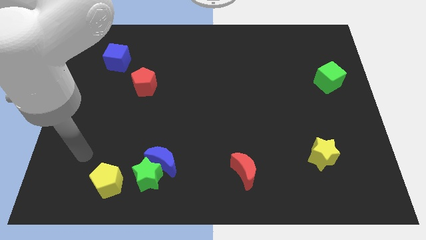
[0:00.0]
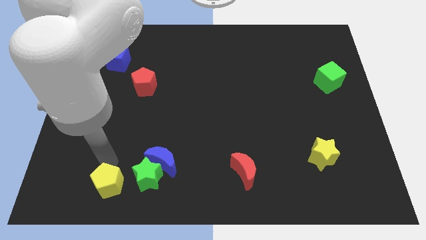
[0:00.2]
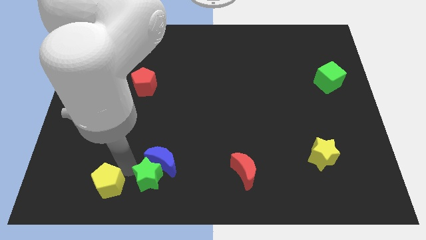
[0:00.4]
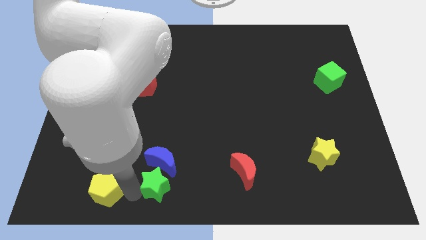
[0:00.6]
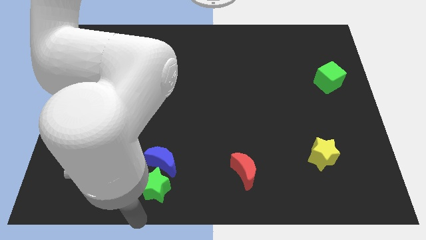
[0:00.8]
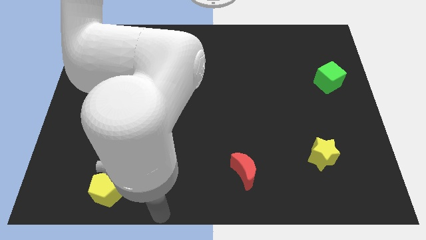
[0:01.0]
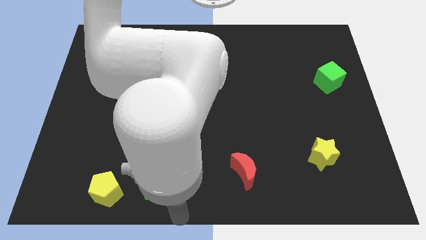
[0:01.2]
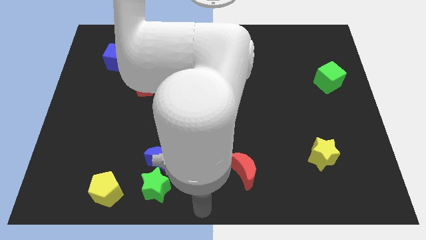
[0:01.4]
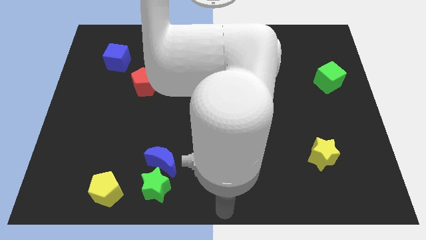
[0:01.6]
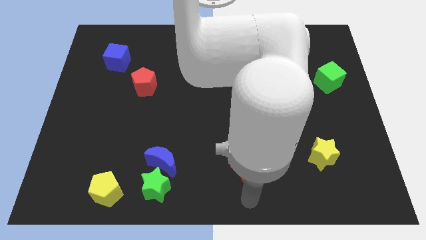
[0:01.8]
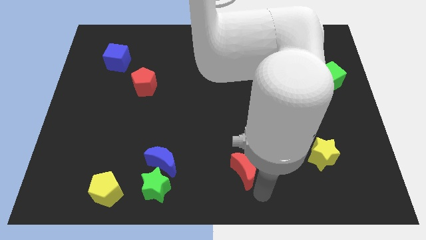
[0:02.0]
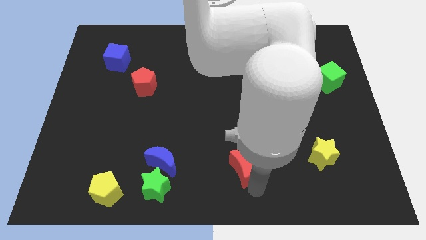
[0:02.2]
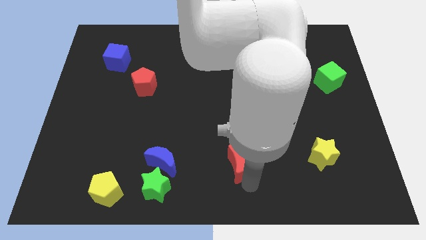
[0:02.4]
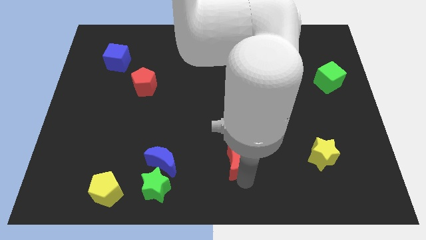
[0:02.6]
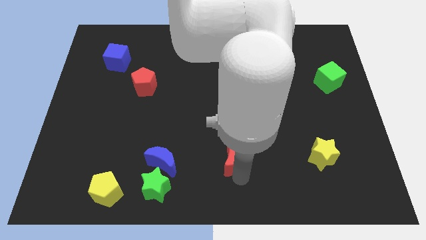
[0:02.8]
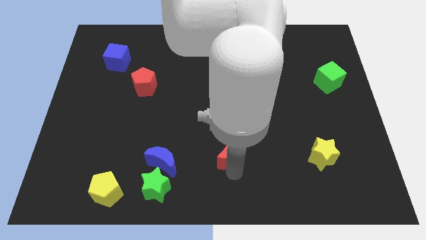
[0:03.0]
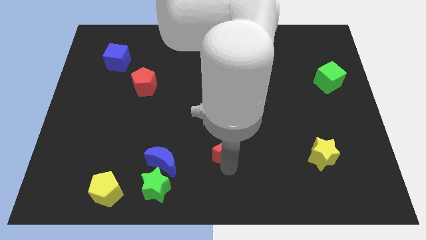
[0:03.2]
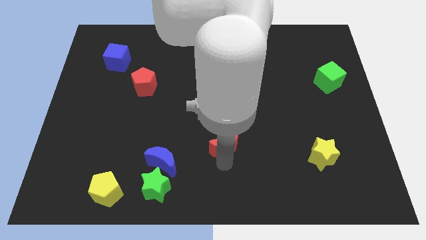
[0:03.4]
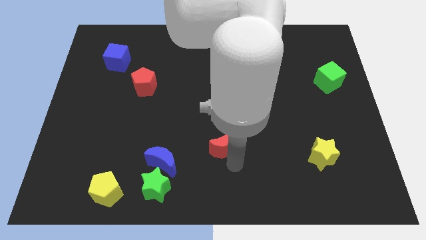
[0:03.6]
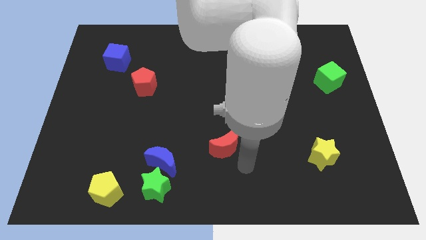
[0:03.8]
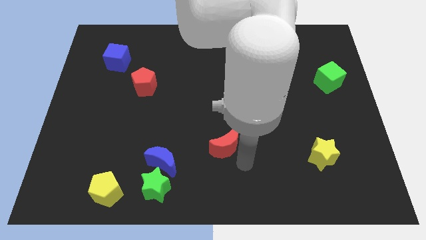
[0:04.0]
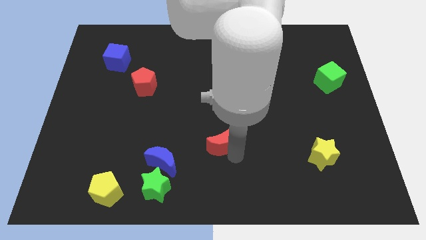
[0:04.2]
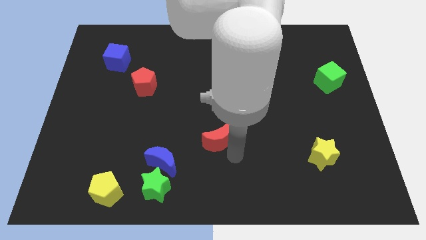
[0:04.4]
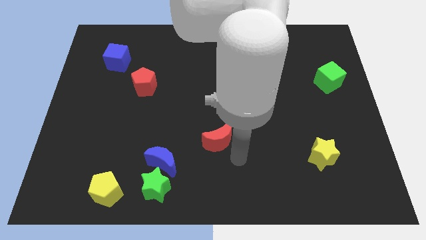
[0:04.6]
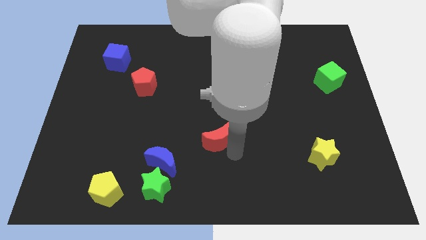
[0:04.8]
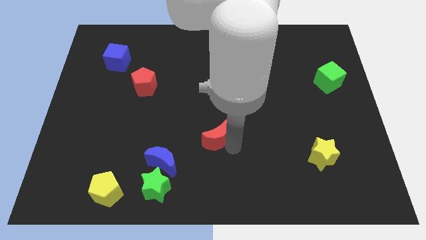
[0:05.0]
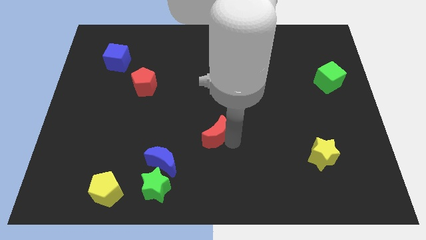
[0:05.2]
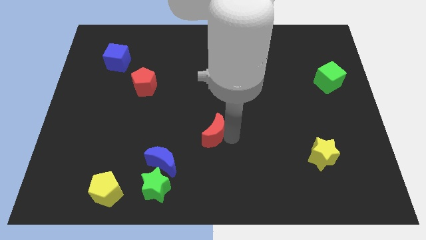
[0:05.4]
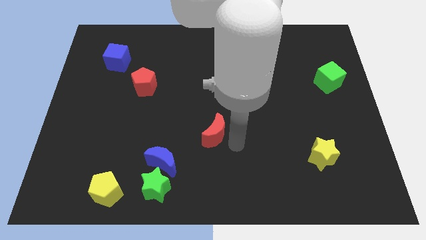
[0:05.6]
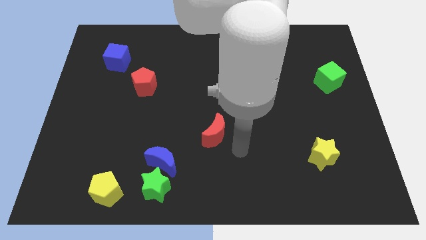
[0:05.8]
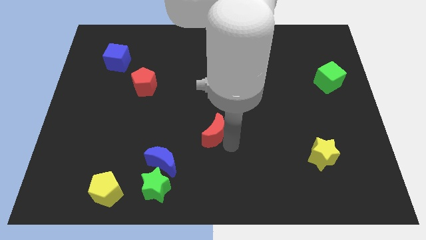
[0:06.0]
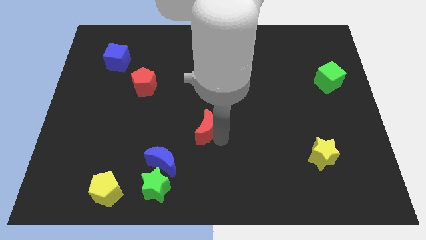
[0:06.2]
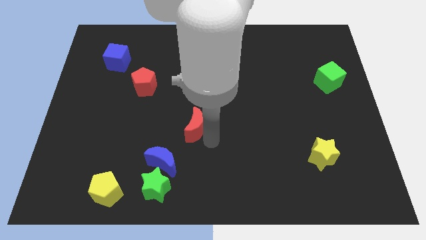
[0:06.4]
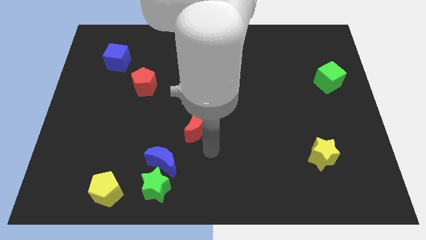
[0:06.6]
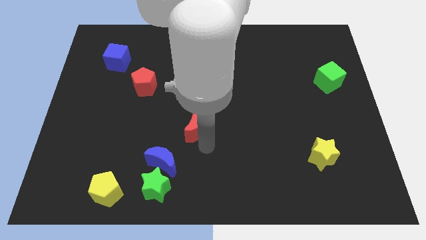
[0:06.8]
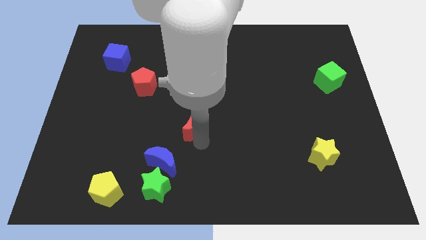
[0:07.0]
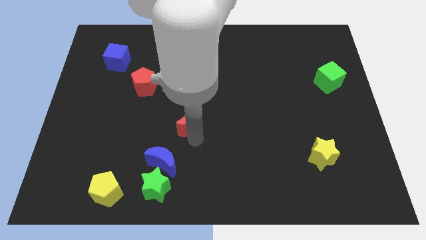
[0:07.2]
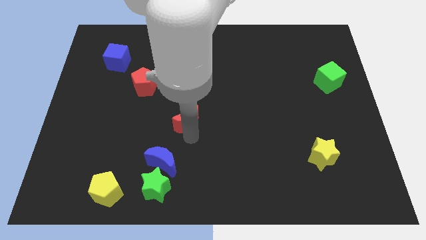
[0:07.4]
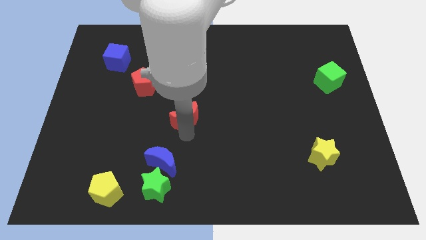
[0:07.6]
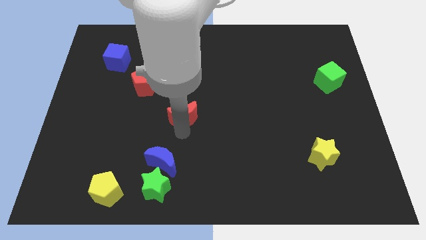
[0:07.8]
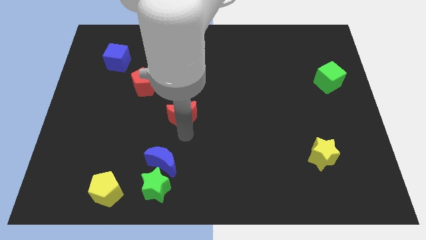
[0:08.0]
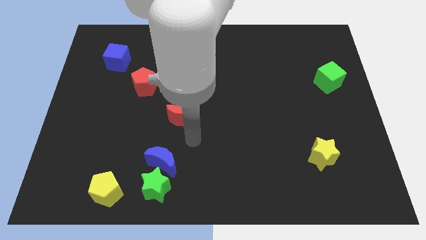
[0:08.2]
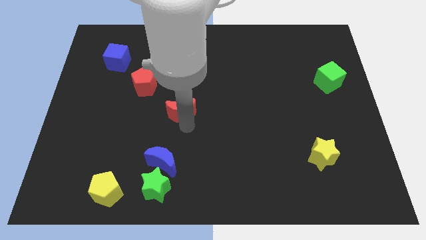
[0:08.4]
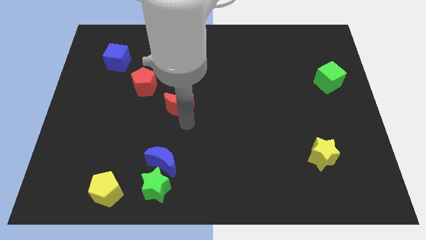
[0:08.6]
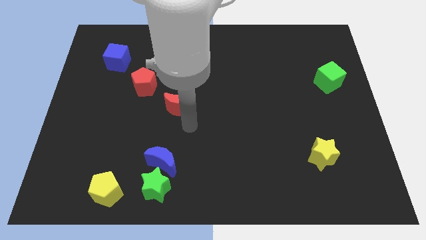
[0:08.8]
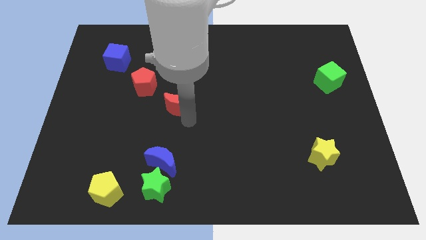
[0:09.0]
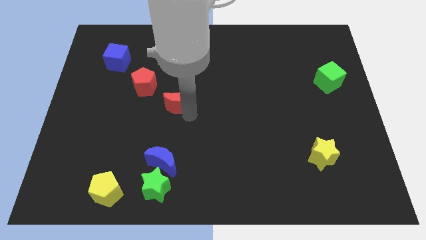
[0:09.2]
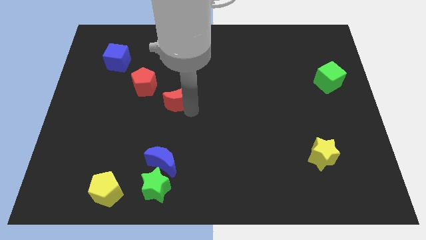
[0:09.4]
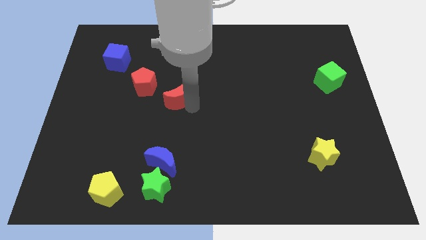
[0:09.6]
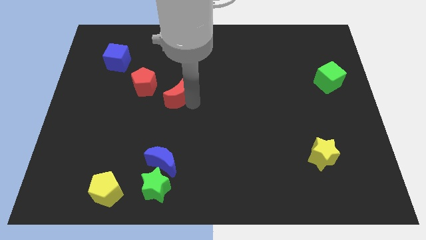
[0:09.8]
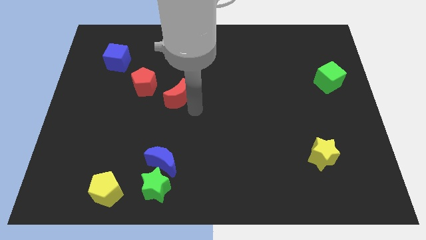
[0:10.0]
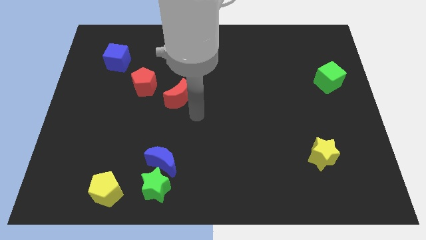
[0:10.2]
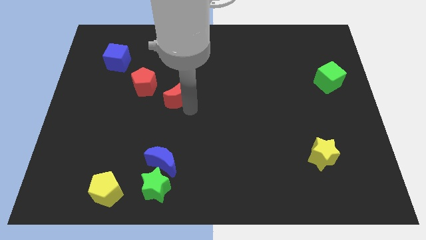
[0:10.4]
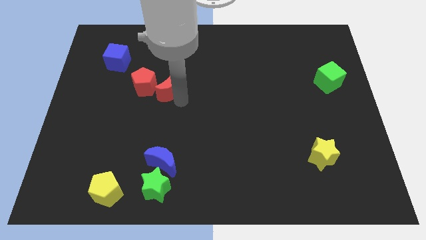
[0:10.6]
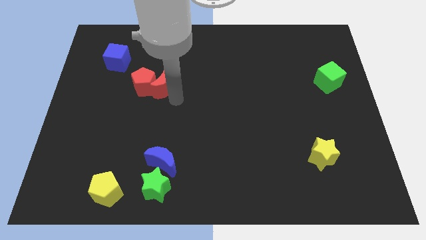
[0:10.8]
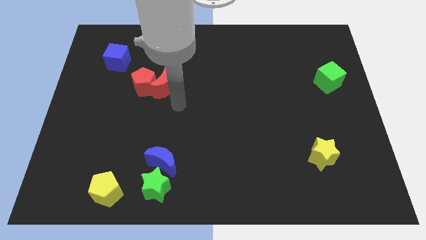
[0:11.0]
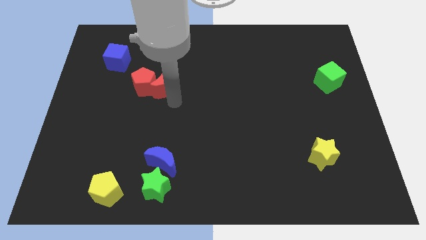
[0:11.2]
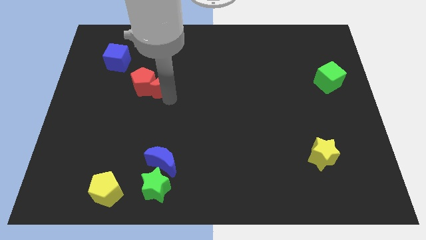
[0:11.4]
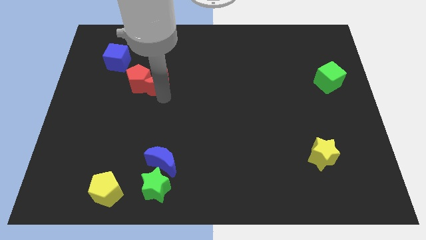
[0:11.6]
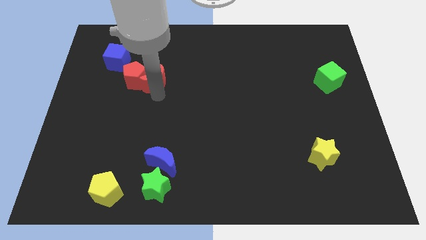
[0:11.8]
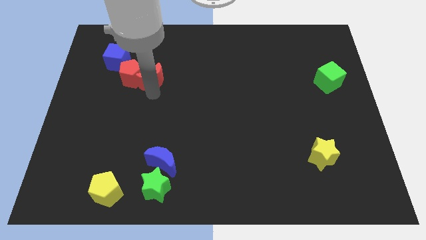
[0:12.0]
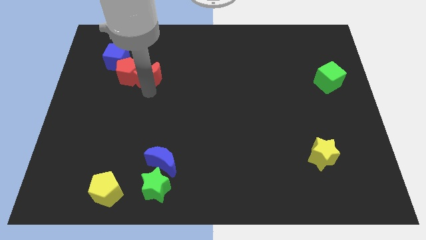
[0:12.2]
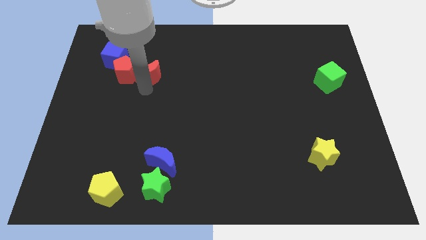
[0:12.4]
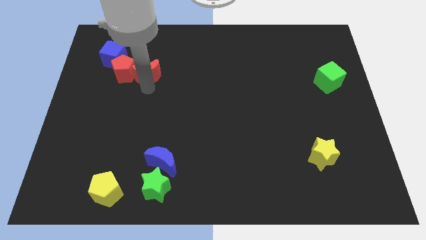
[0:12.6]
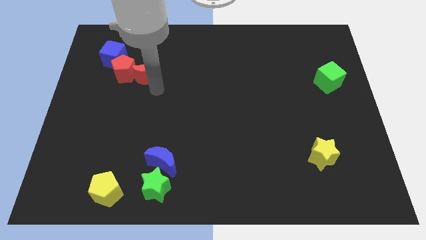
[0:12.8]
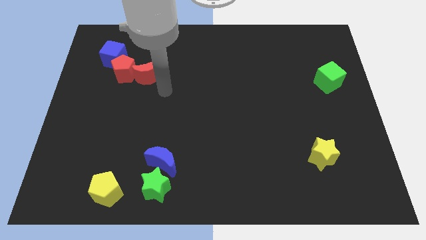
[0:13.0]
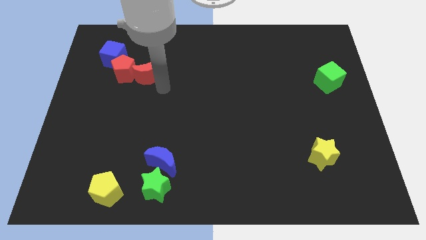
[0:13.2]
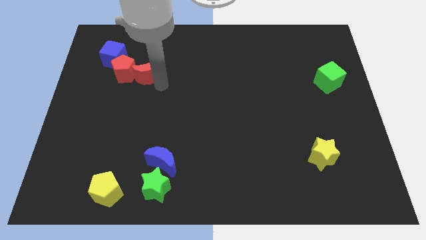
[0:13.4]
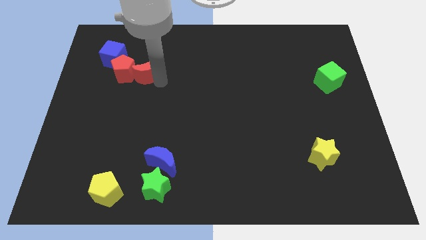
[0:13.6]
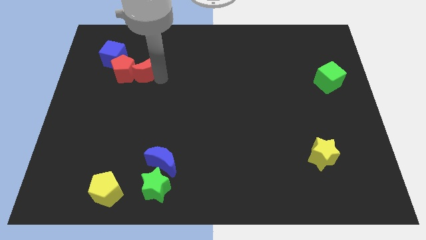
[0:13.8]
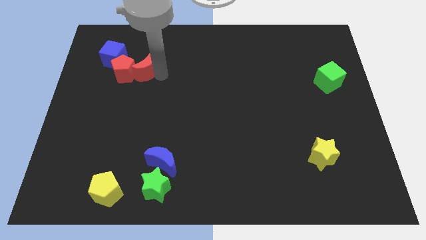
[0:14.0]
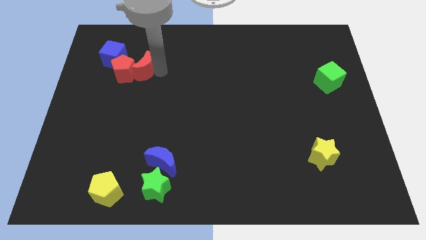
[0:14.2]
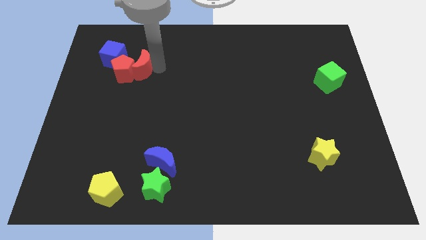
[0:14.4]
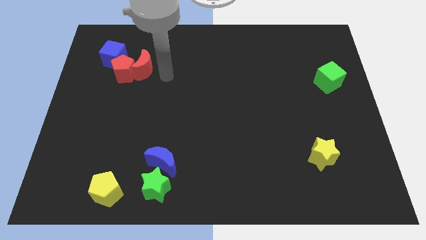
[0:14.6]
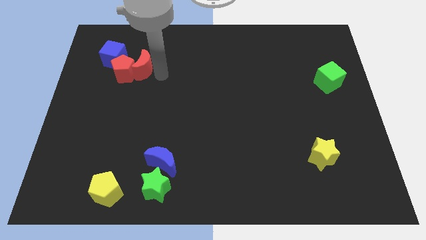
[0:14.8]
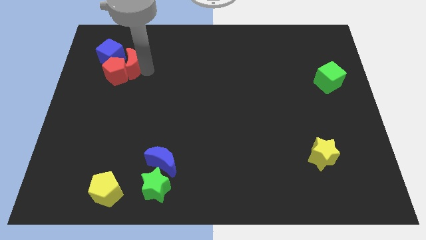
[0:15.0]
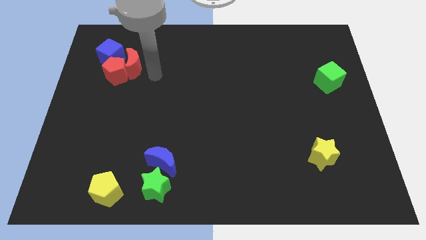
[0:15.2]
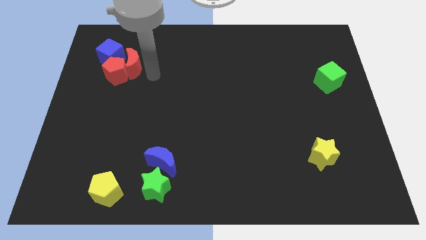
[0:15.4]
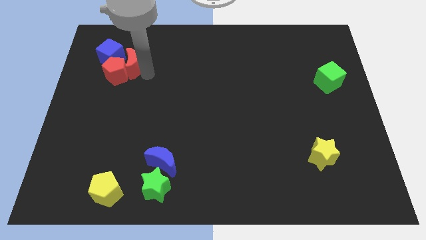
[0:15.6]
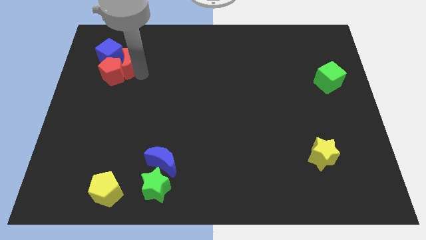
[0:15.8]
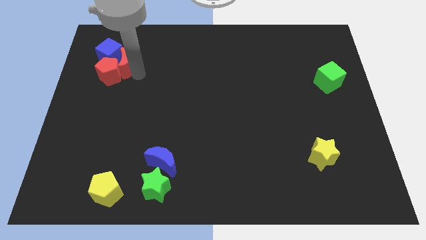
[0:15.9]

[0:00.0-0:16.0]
push the red moon next to the blue cube
